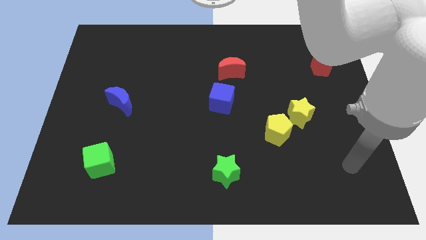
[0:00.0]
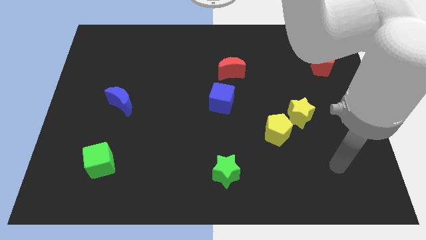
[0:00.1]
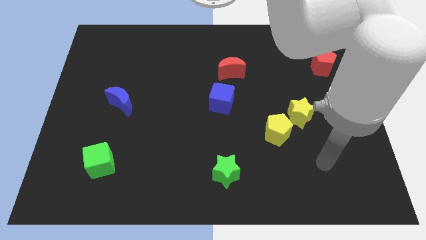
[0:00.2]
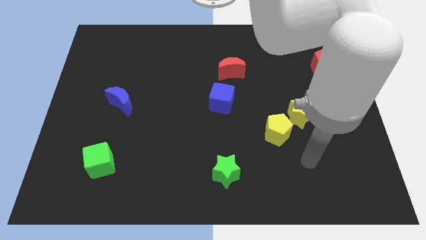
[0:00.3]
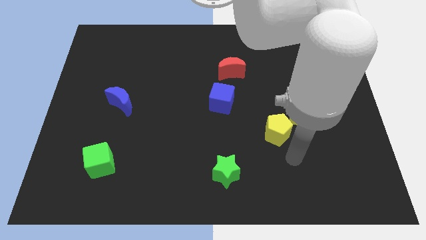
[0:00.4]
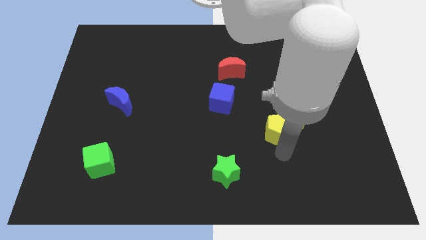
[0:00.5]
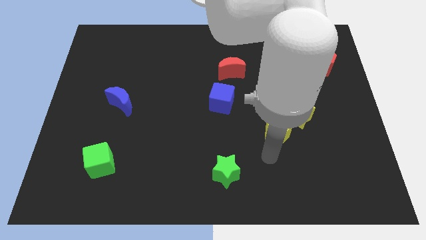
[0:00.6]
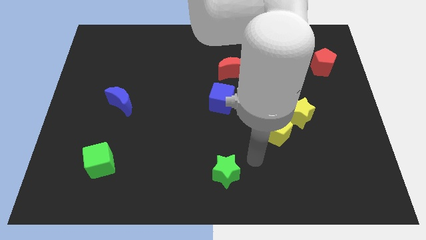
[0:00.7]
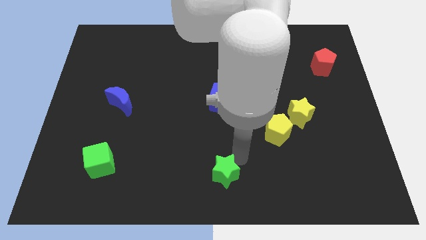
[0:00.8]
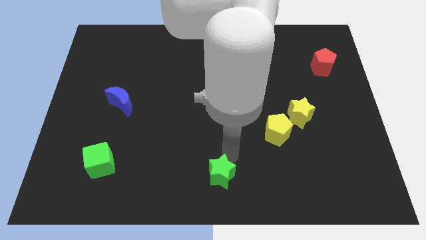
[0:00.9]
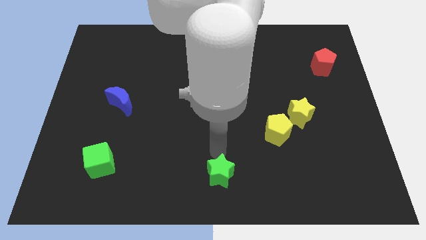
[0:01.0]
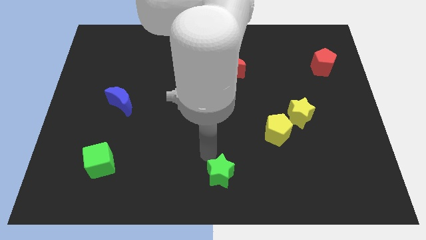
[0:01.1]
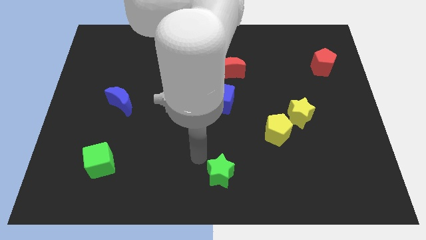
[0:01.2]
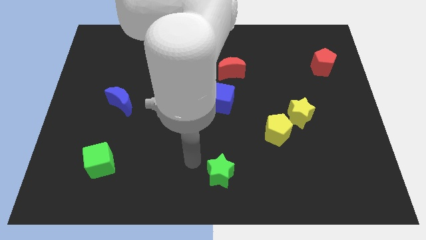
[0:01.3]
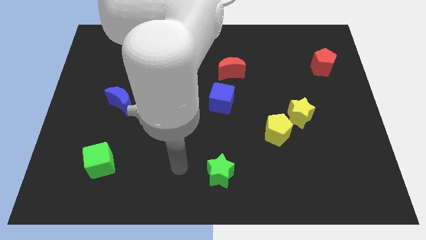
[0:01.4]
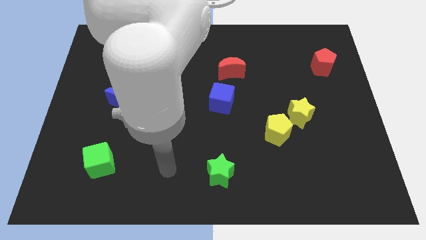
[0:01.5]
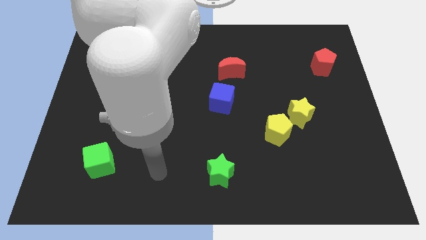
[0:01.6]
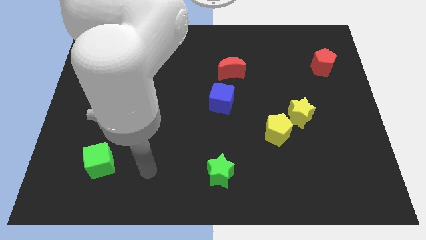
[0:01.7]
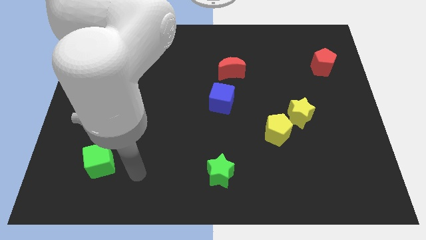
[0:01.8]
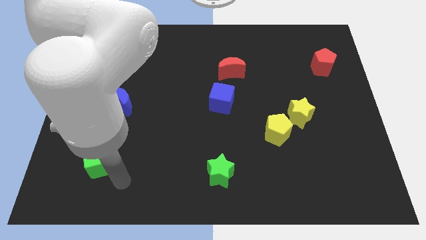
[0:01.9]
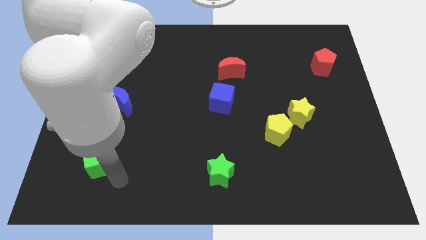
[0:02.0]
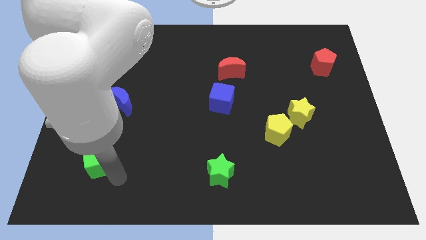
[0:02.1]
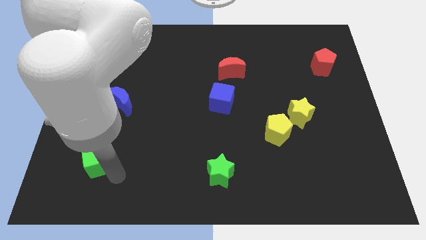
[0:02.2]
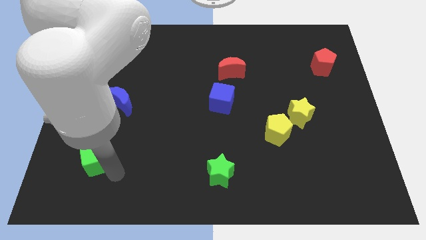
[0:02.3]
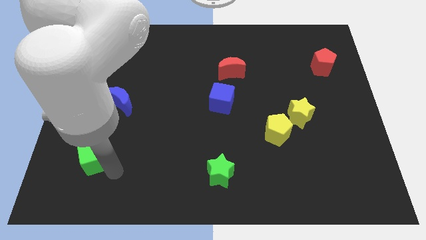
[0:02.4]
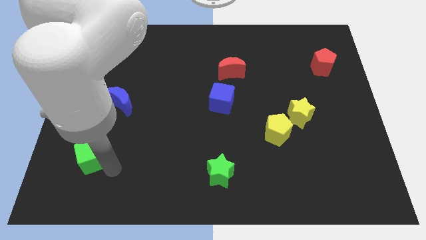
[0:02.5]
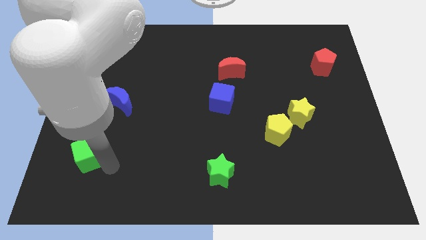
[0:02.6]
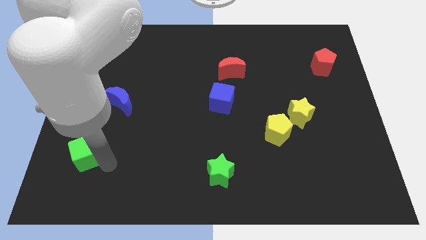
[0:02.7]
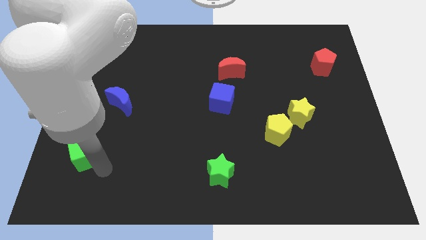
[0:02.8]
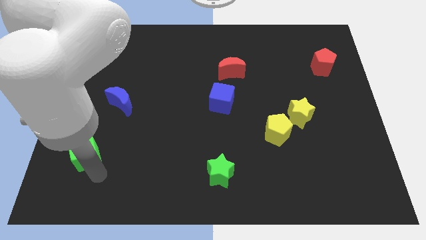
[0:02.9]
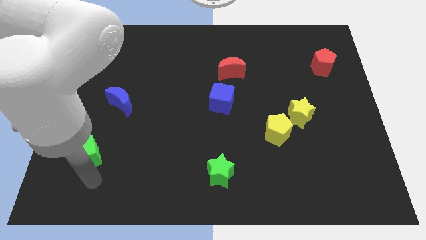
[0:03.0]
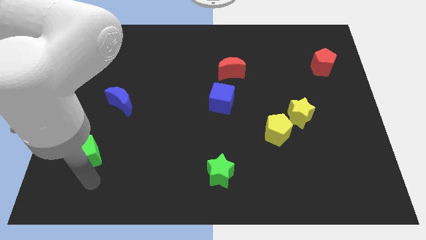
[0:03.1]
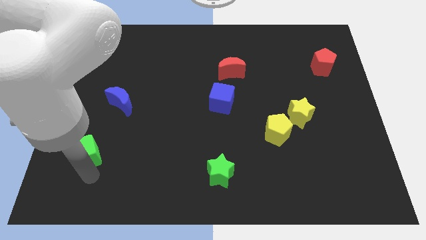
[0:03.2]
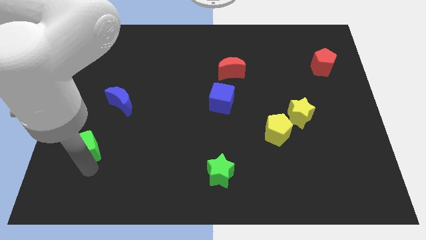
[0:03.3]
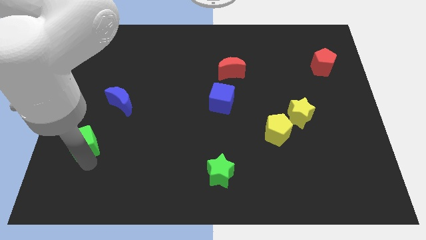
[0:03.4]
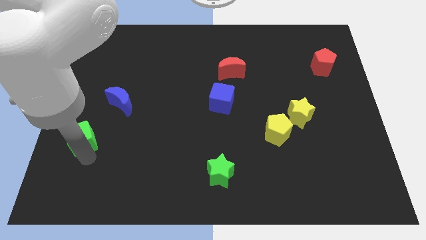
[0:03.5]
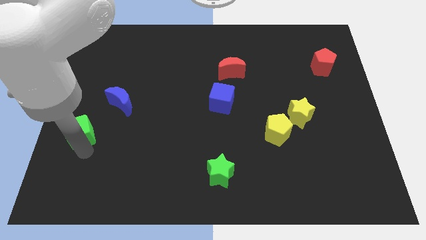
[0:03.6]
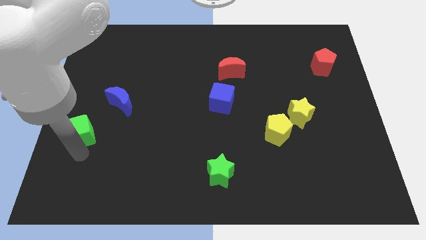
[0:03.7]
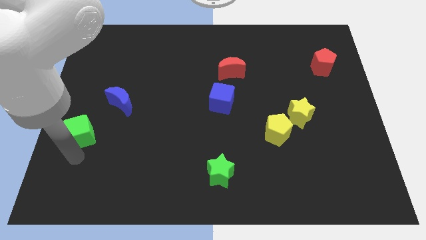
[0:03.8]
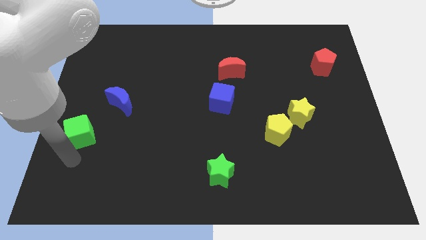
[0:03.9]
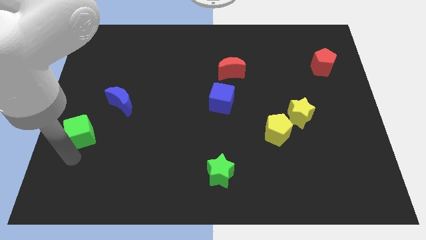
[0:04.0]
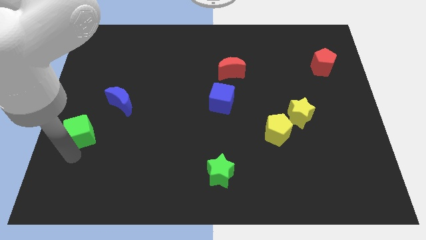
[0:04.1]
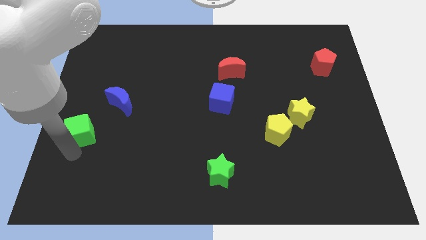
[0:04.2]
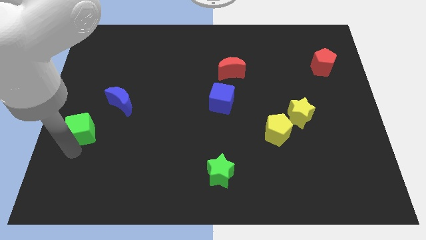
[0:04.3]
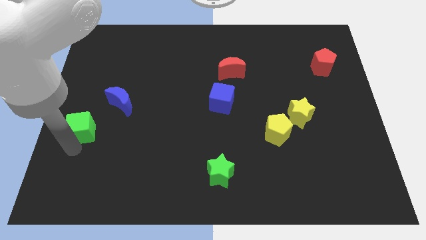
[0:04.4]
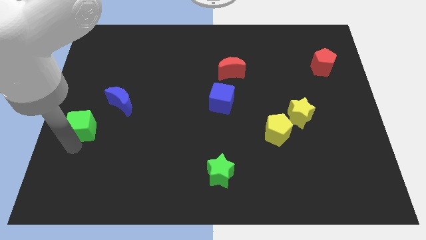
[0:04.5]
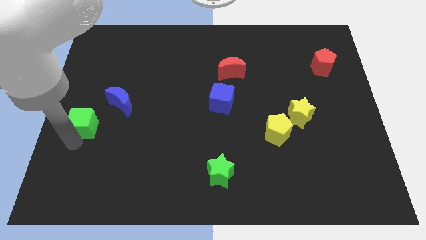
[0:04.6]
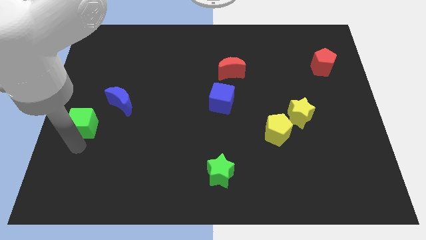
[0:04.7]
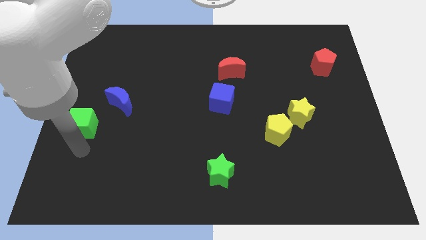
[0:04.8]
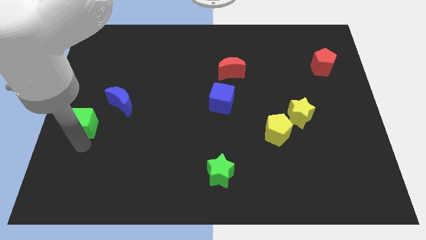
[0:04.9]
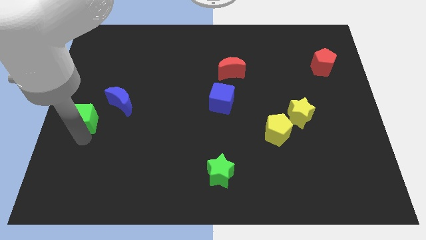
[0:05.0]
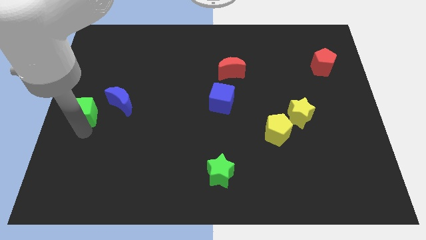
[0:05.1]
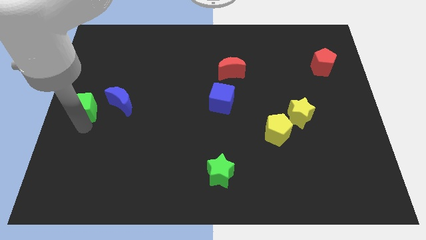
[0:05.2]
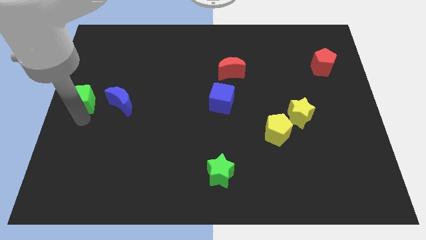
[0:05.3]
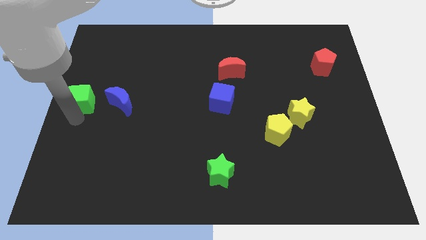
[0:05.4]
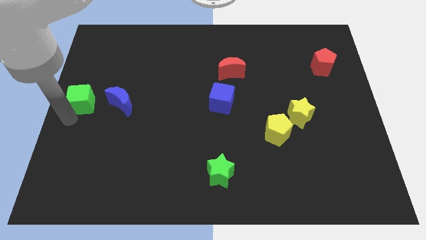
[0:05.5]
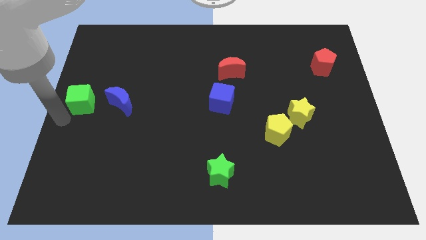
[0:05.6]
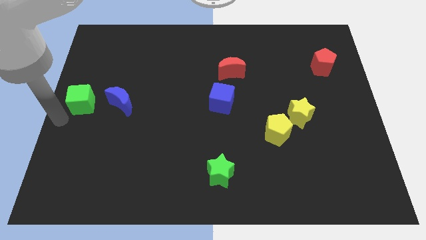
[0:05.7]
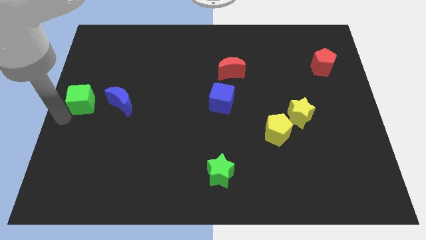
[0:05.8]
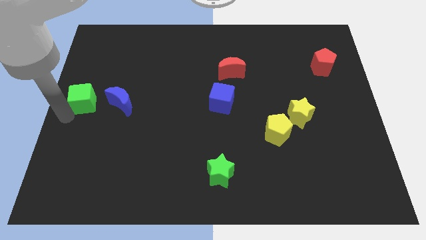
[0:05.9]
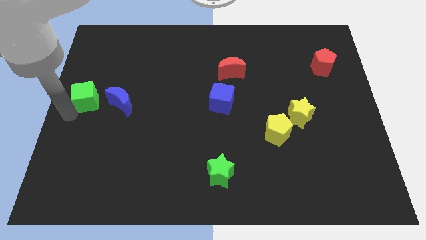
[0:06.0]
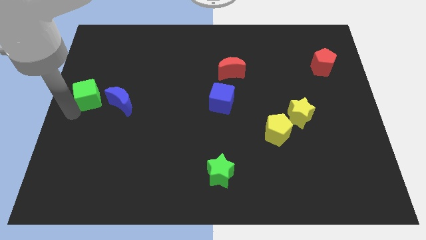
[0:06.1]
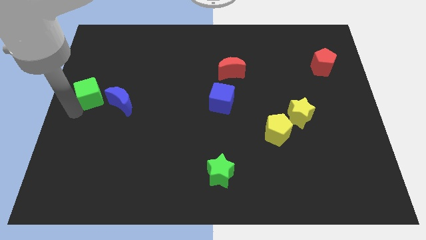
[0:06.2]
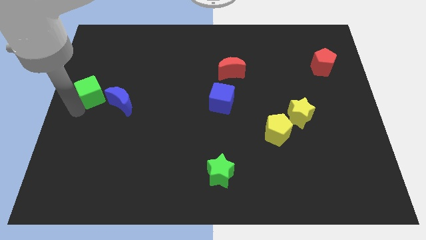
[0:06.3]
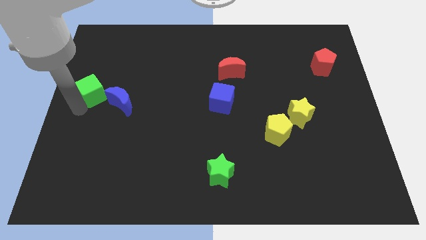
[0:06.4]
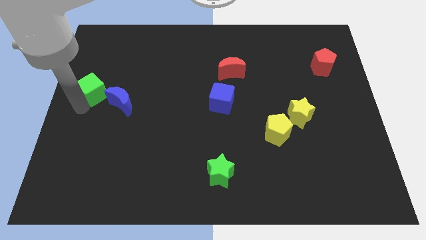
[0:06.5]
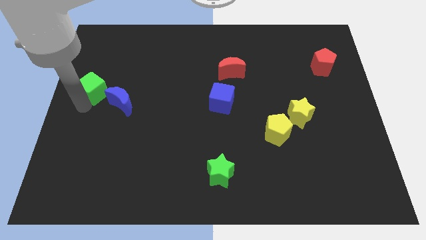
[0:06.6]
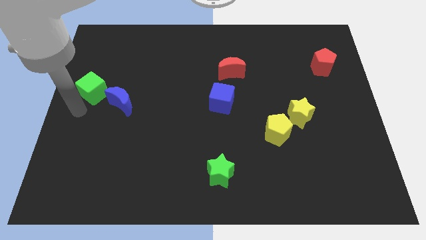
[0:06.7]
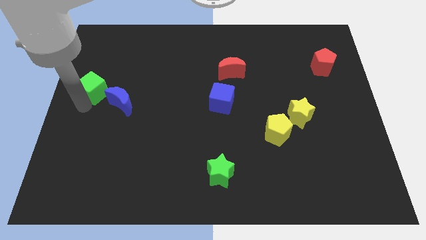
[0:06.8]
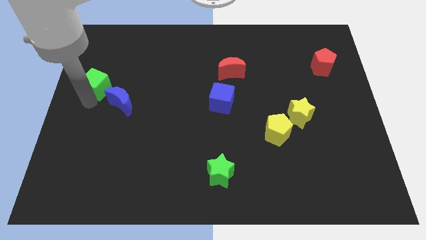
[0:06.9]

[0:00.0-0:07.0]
push the green cube upwards

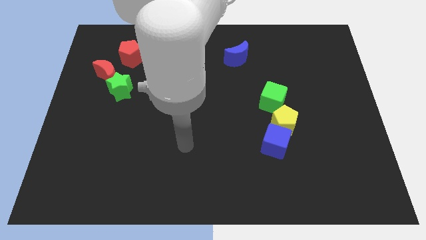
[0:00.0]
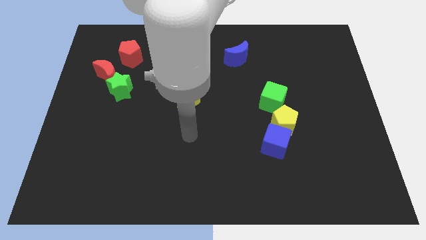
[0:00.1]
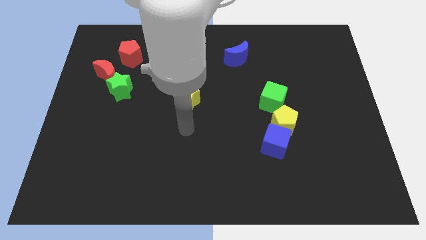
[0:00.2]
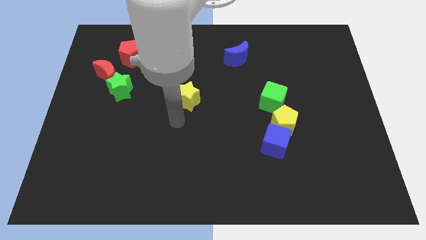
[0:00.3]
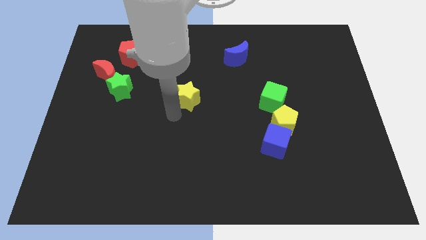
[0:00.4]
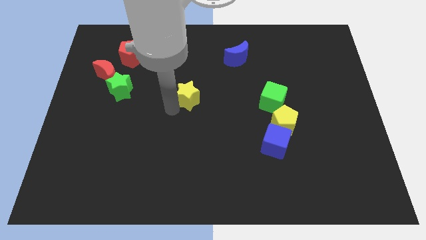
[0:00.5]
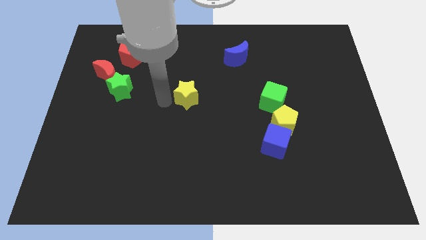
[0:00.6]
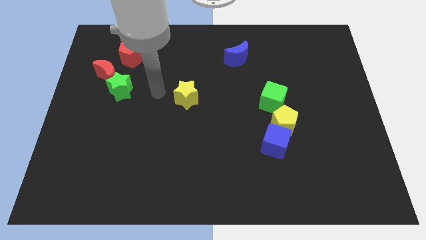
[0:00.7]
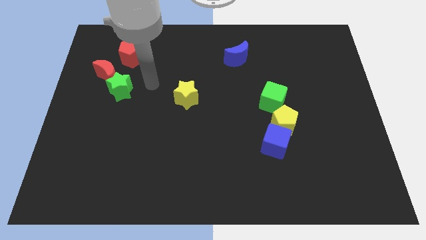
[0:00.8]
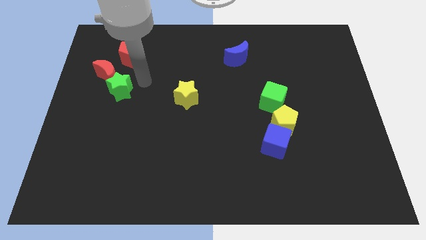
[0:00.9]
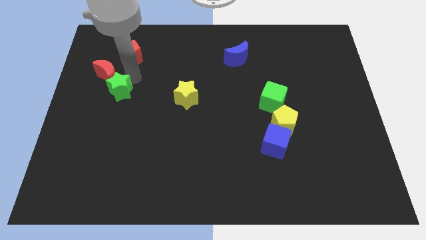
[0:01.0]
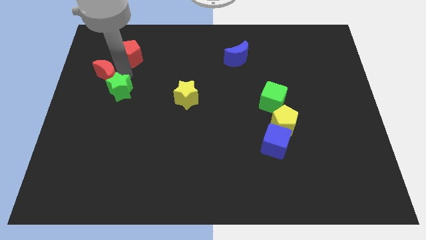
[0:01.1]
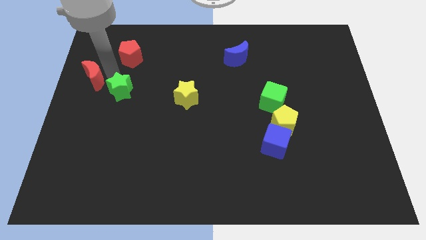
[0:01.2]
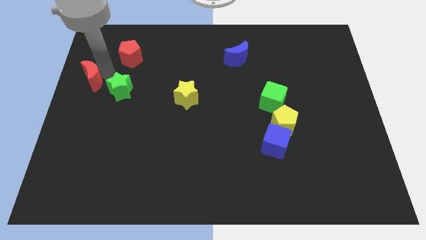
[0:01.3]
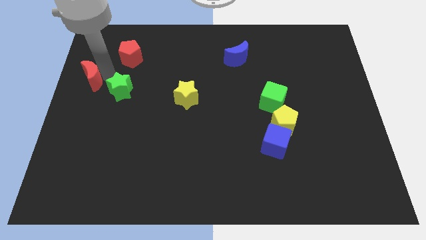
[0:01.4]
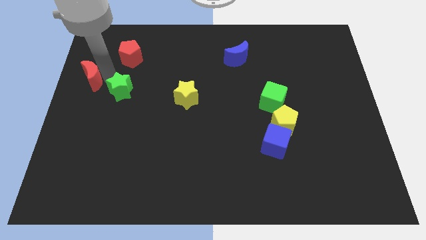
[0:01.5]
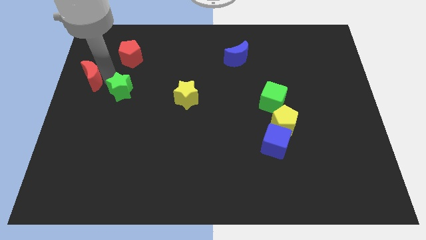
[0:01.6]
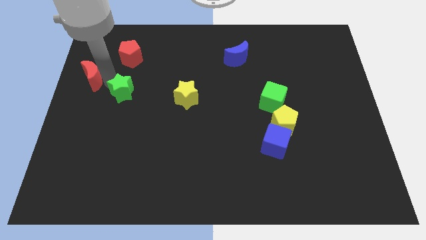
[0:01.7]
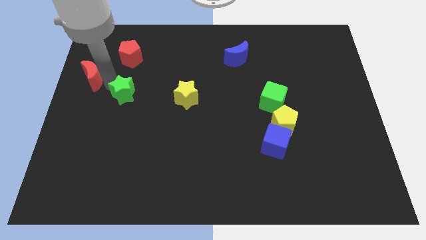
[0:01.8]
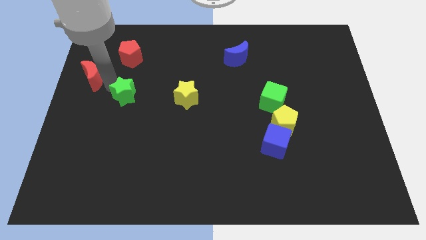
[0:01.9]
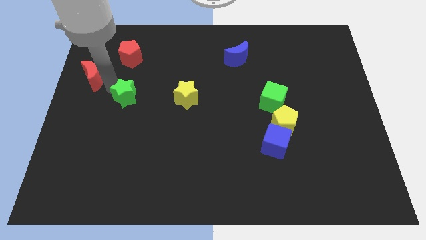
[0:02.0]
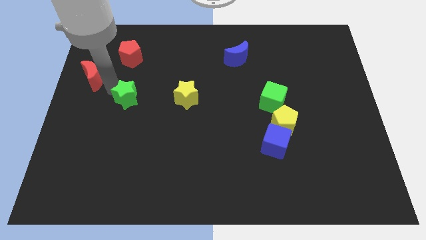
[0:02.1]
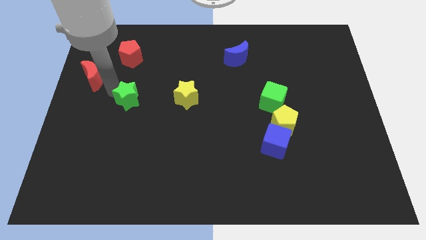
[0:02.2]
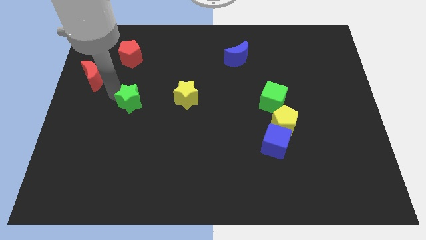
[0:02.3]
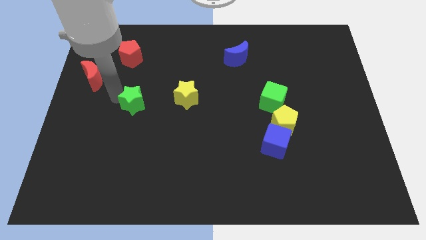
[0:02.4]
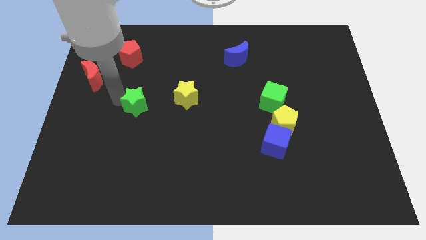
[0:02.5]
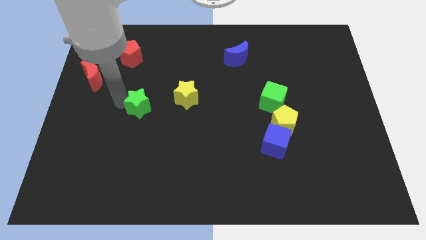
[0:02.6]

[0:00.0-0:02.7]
slide the green star down and then right slightly
